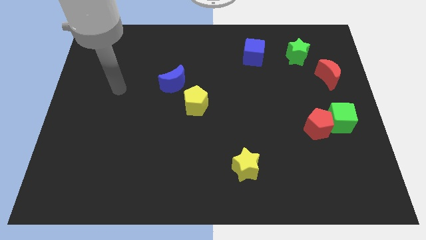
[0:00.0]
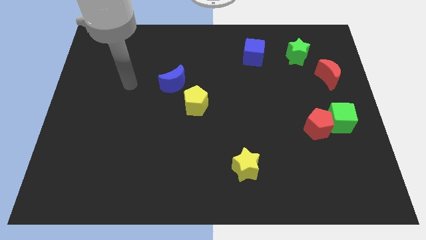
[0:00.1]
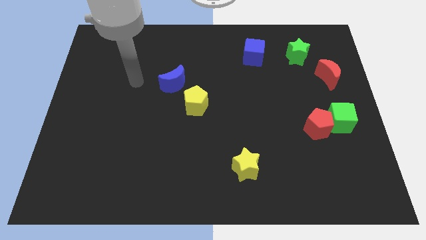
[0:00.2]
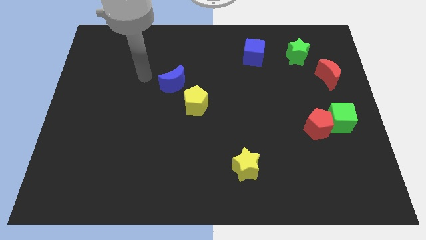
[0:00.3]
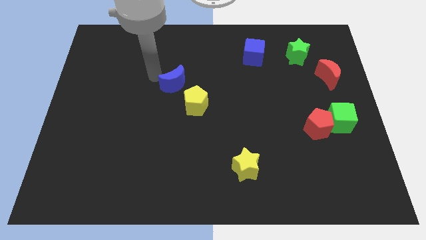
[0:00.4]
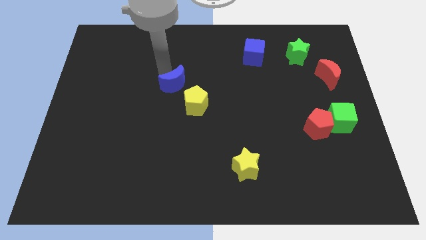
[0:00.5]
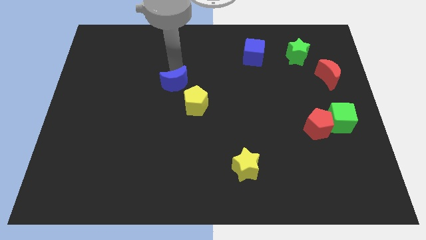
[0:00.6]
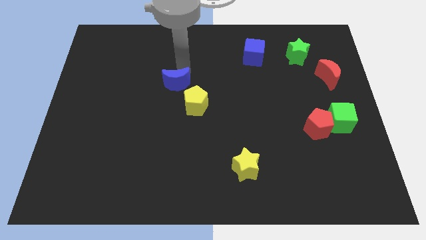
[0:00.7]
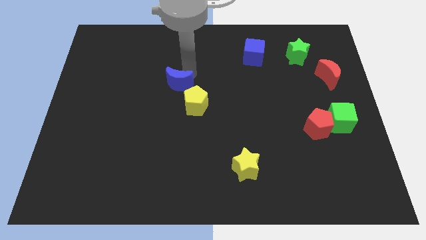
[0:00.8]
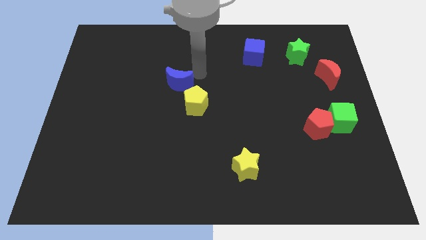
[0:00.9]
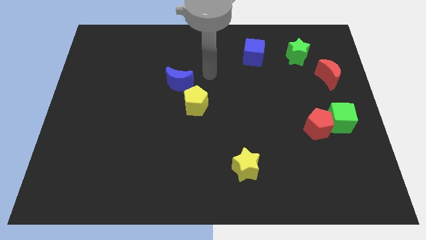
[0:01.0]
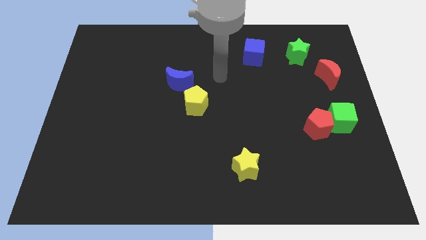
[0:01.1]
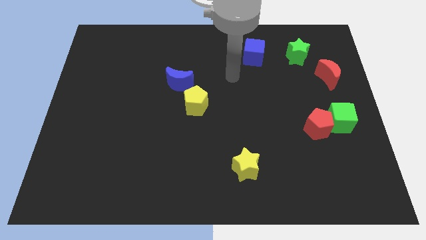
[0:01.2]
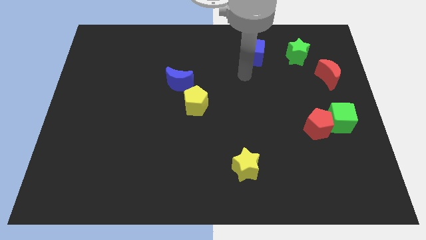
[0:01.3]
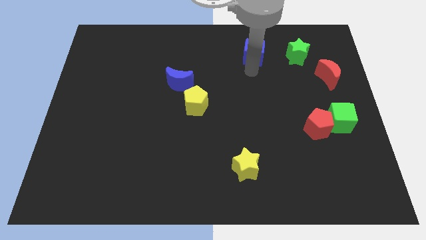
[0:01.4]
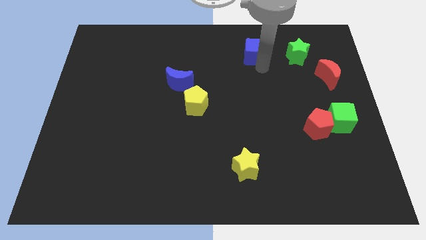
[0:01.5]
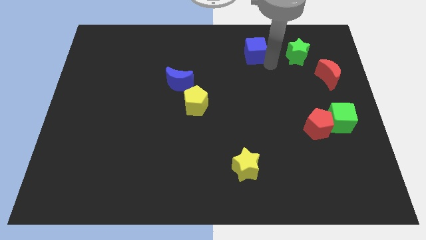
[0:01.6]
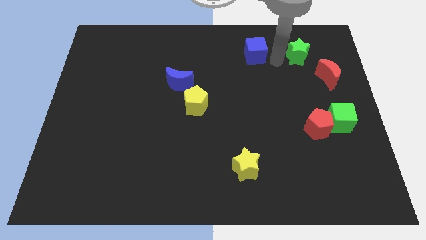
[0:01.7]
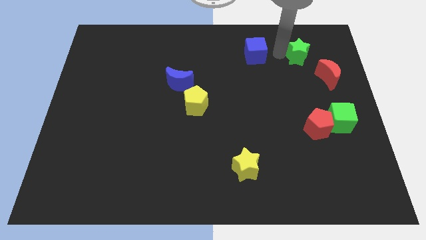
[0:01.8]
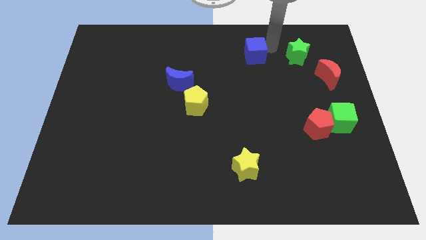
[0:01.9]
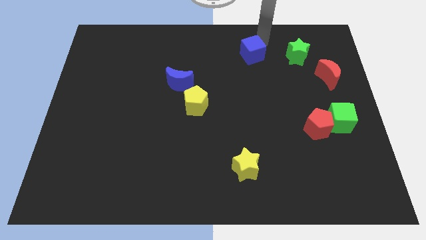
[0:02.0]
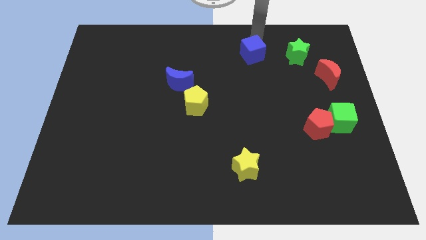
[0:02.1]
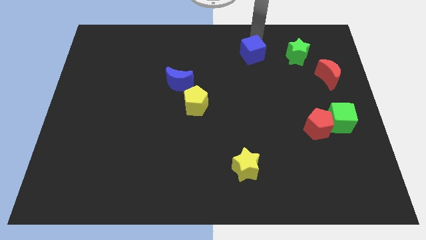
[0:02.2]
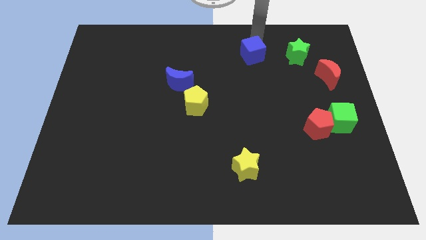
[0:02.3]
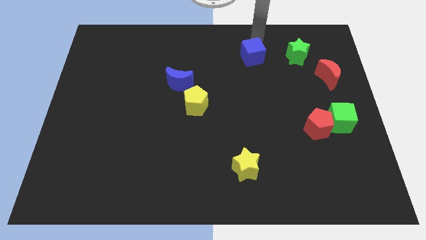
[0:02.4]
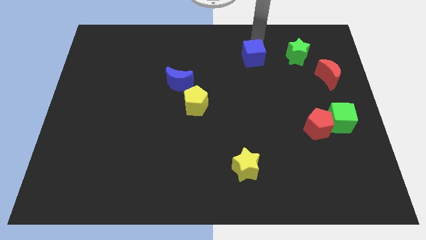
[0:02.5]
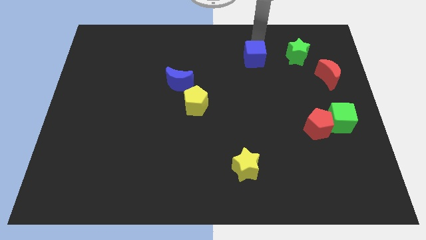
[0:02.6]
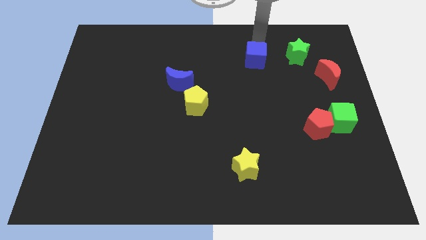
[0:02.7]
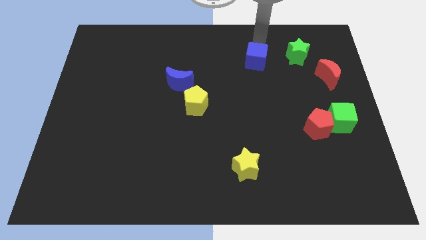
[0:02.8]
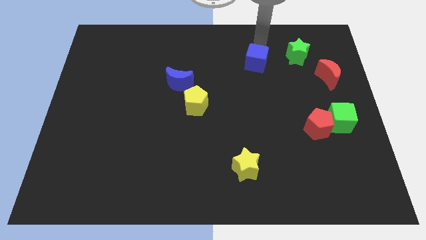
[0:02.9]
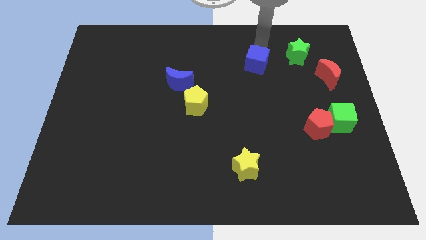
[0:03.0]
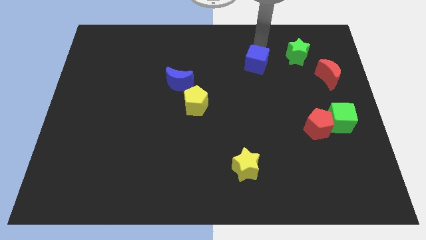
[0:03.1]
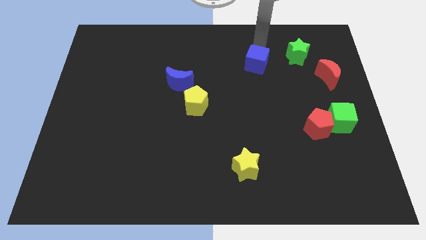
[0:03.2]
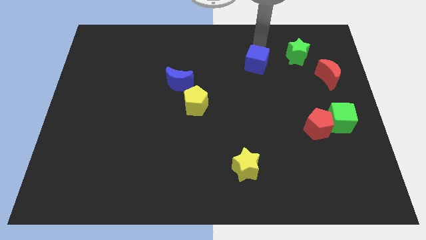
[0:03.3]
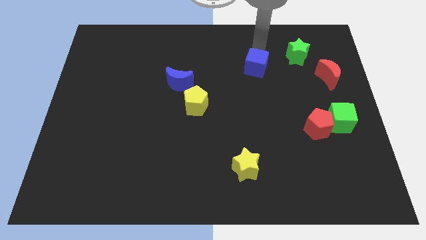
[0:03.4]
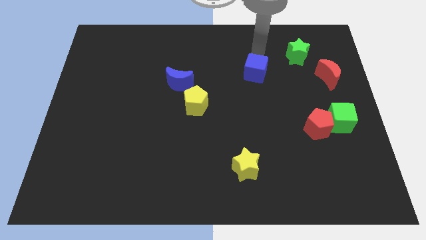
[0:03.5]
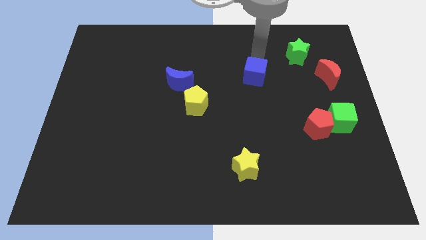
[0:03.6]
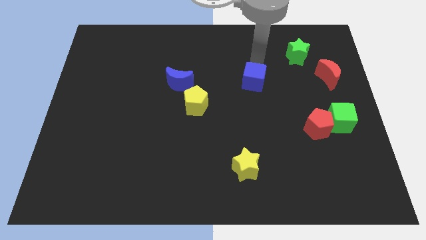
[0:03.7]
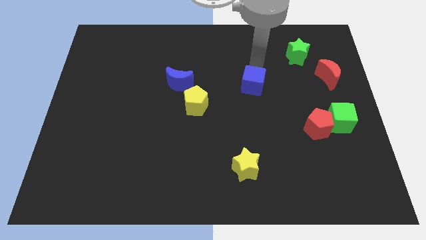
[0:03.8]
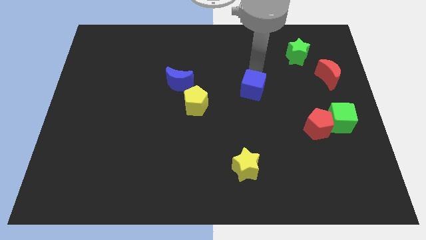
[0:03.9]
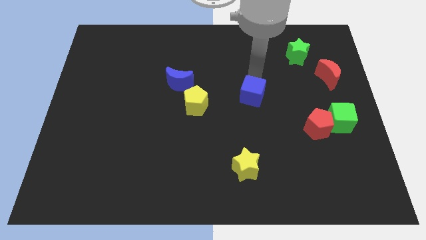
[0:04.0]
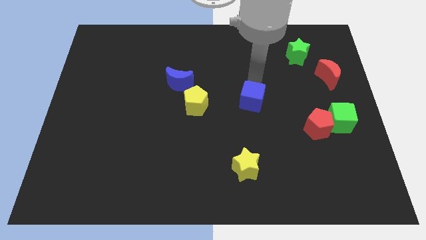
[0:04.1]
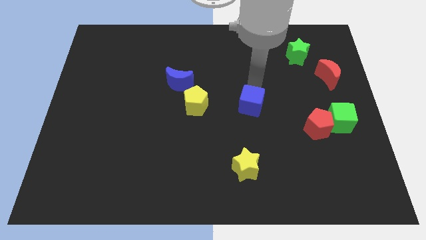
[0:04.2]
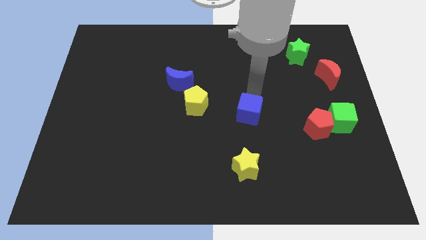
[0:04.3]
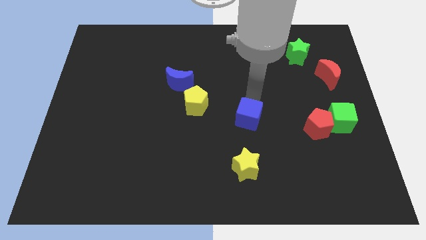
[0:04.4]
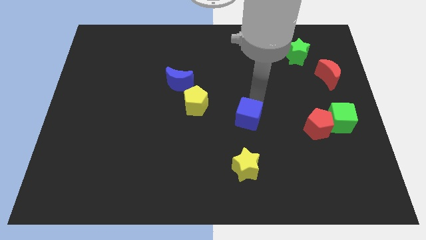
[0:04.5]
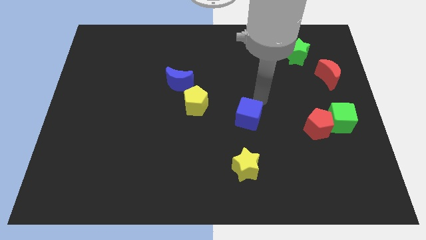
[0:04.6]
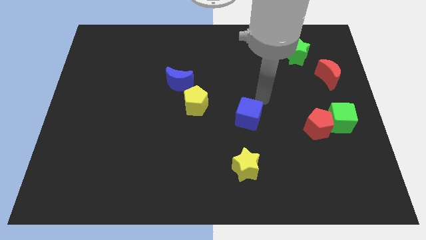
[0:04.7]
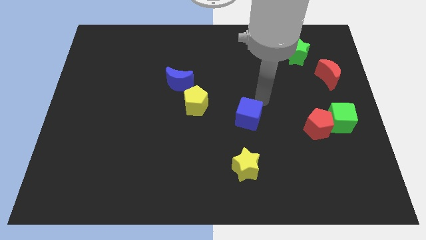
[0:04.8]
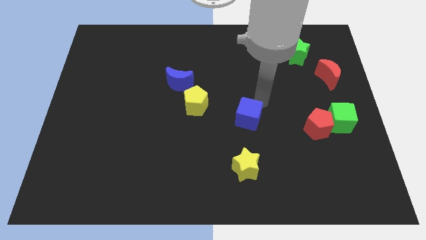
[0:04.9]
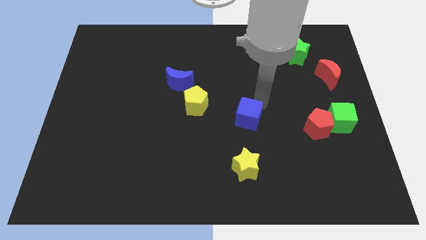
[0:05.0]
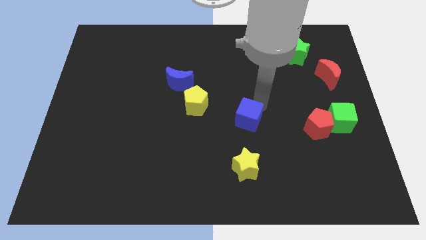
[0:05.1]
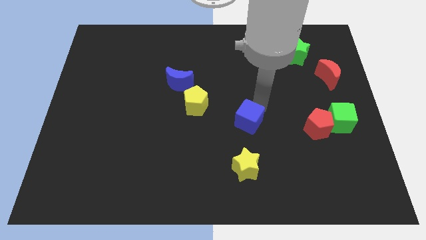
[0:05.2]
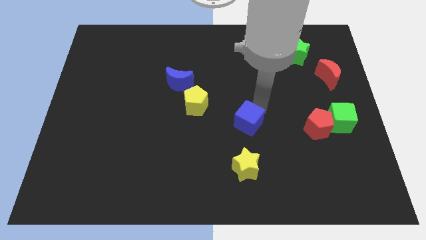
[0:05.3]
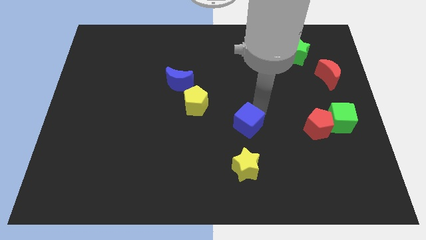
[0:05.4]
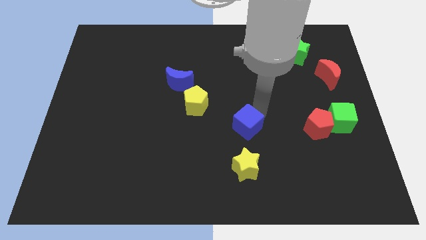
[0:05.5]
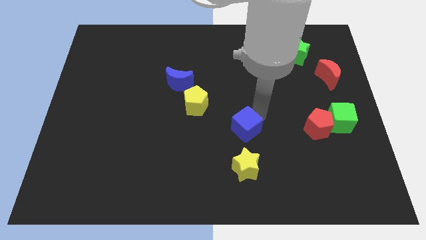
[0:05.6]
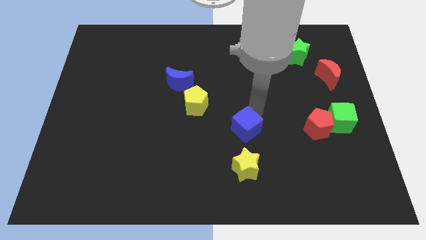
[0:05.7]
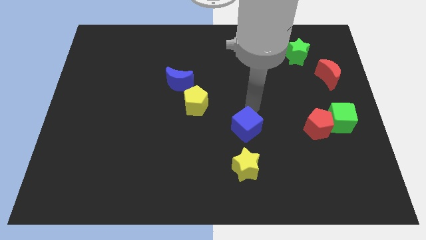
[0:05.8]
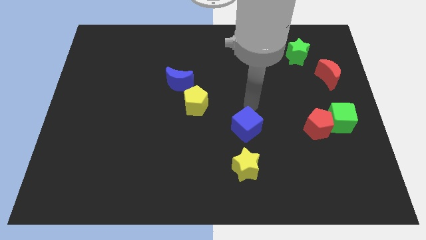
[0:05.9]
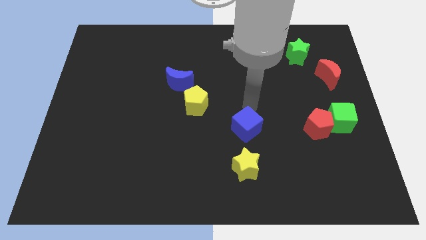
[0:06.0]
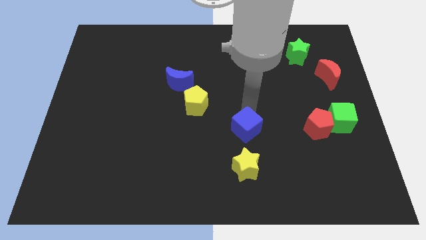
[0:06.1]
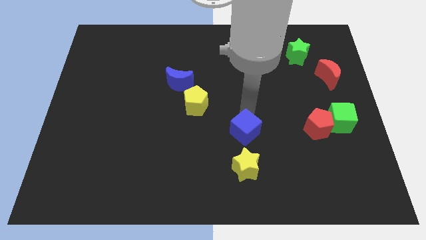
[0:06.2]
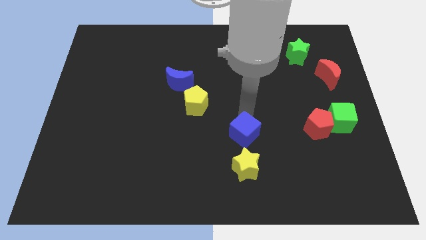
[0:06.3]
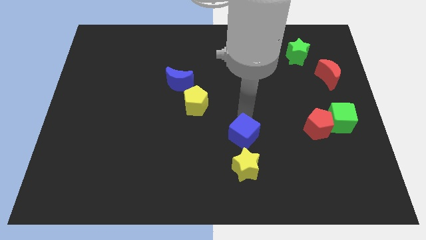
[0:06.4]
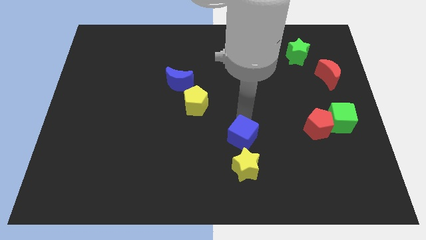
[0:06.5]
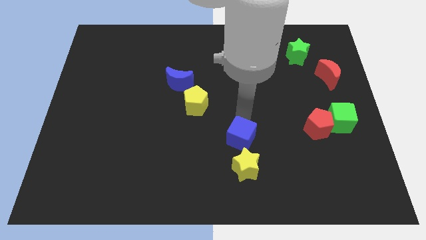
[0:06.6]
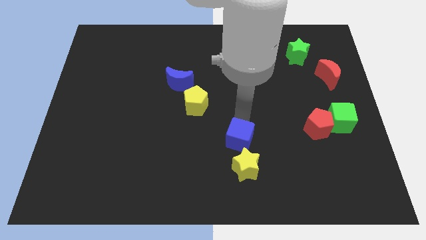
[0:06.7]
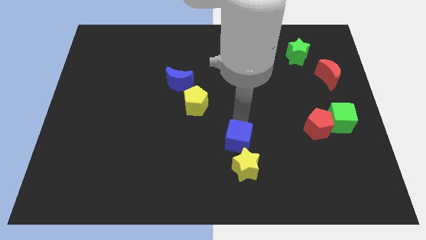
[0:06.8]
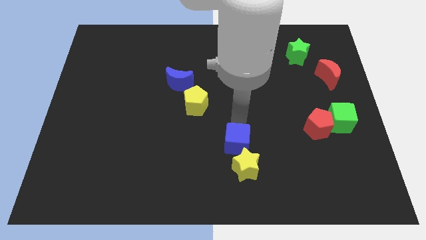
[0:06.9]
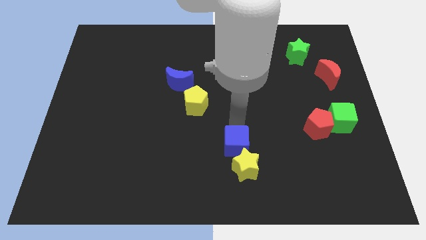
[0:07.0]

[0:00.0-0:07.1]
push the blue cube towards the yellow star

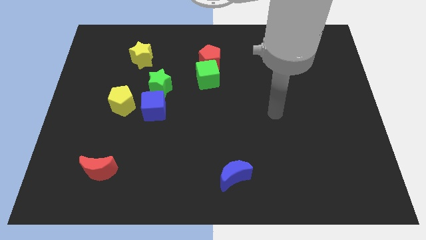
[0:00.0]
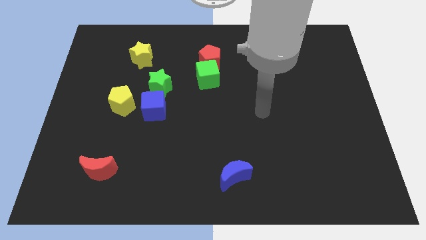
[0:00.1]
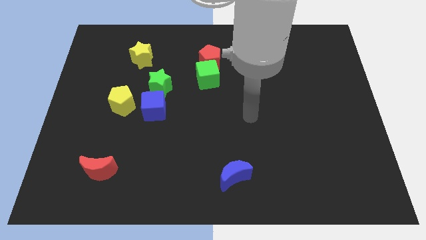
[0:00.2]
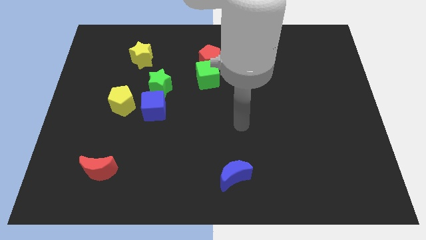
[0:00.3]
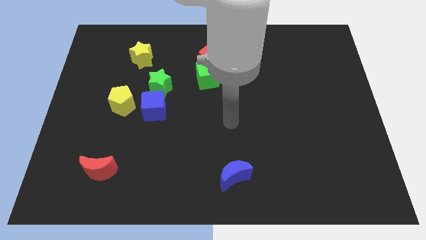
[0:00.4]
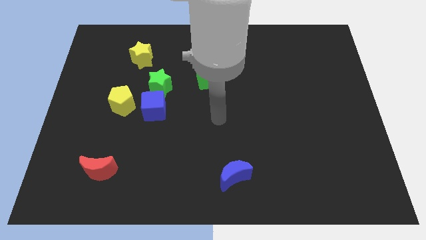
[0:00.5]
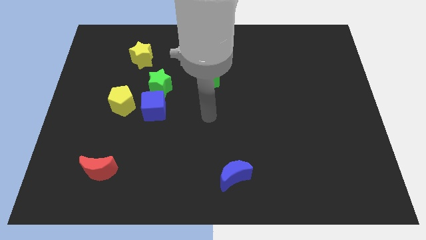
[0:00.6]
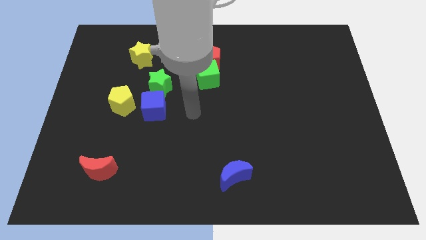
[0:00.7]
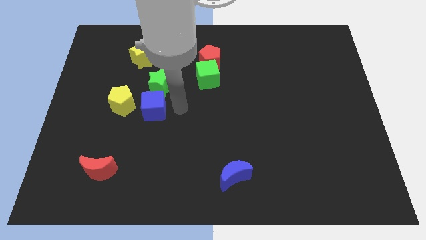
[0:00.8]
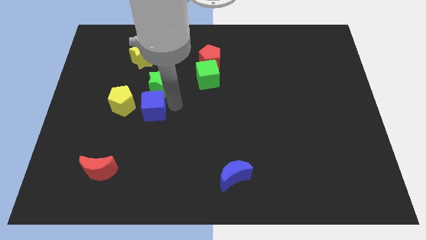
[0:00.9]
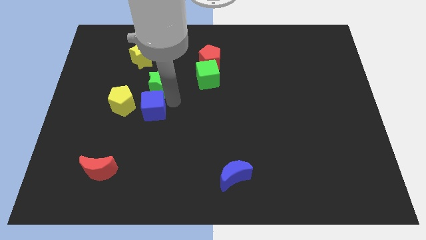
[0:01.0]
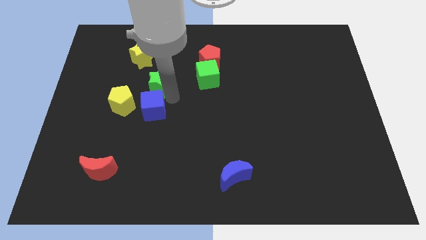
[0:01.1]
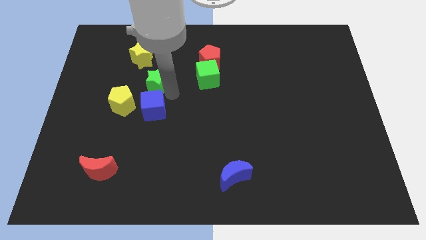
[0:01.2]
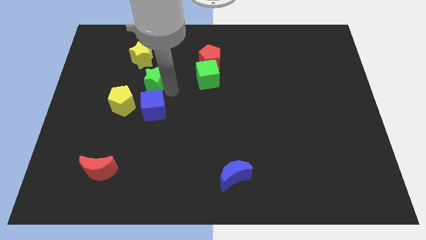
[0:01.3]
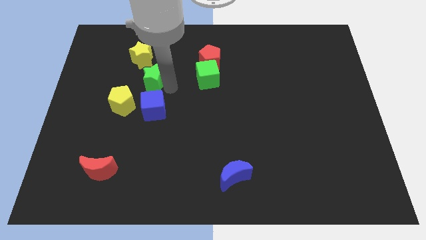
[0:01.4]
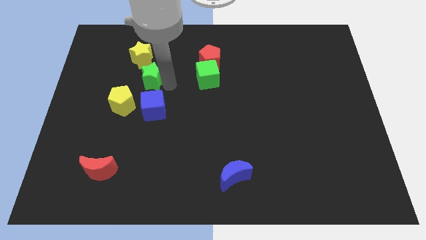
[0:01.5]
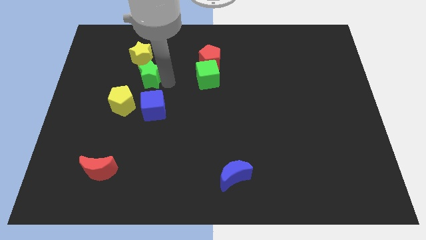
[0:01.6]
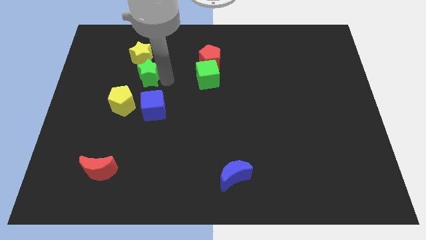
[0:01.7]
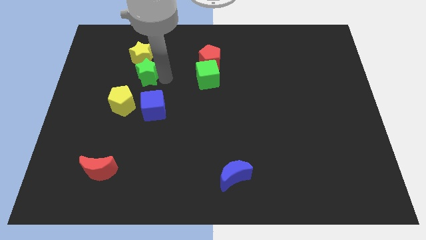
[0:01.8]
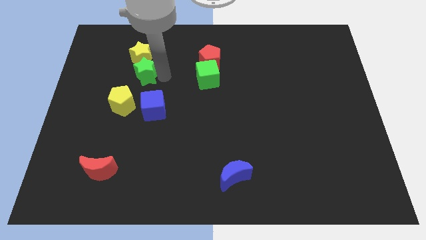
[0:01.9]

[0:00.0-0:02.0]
move the green star close to the yellow star
